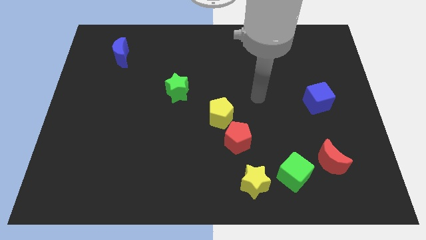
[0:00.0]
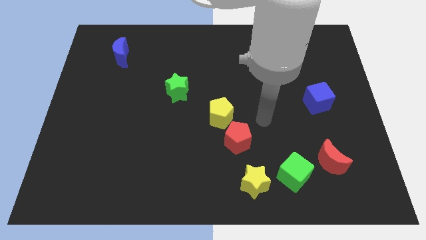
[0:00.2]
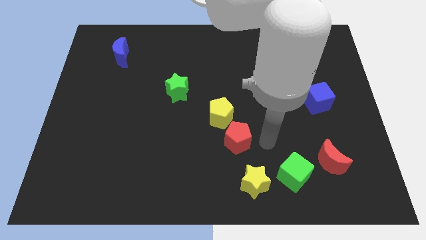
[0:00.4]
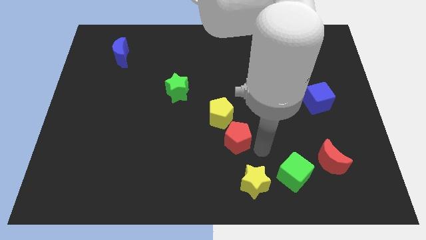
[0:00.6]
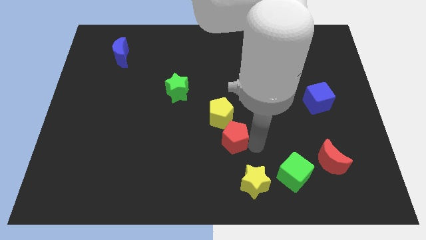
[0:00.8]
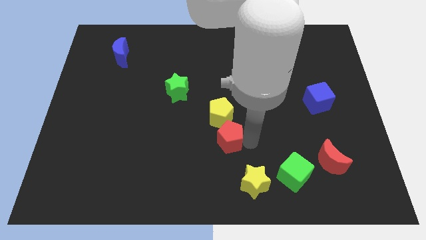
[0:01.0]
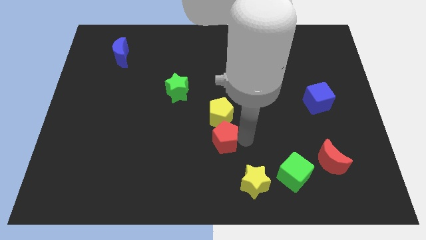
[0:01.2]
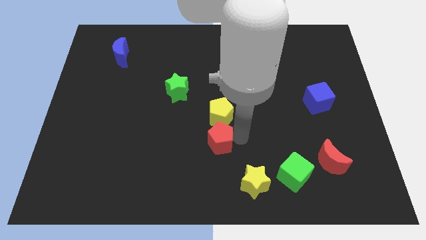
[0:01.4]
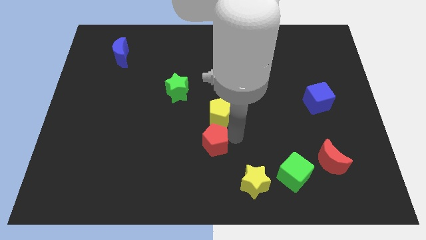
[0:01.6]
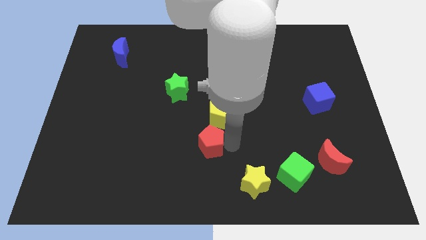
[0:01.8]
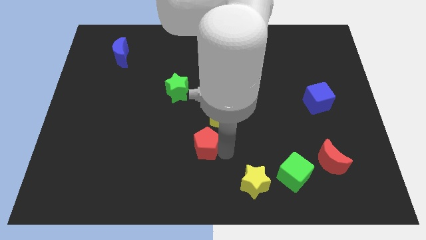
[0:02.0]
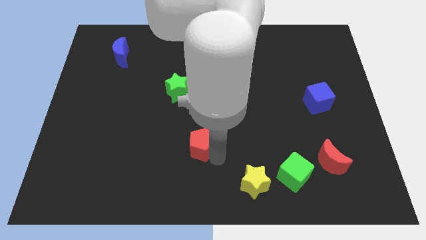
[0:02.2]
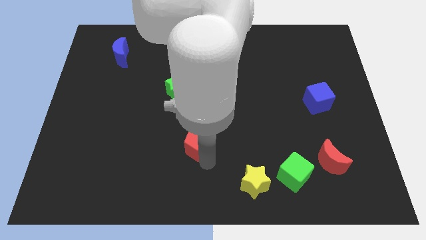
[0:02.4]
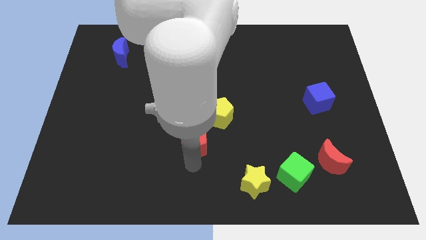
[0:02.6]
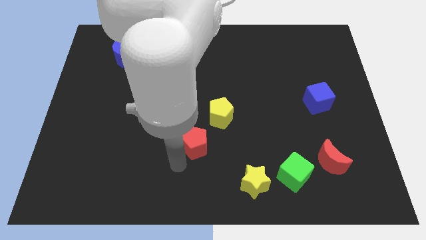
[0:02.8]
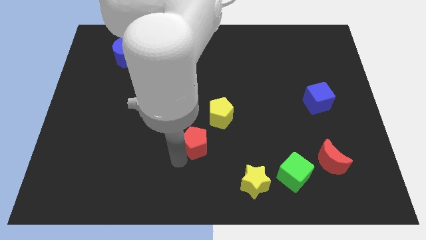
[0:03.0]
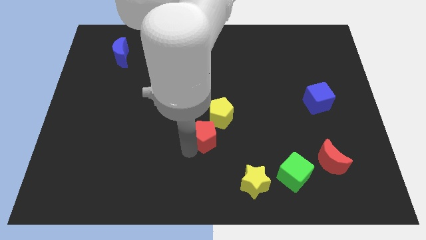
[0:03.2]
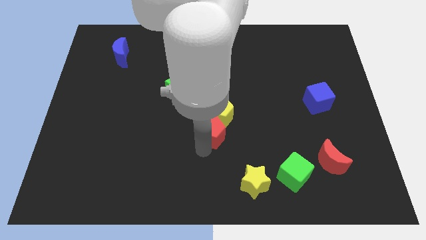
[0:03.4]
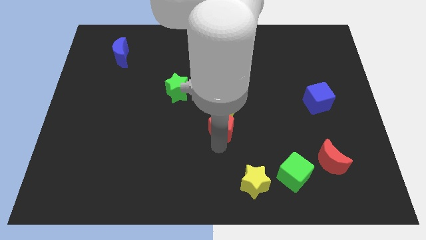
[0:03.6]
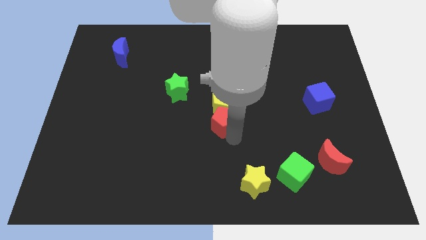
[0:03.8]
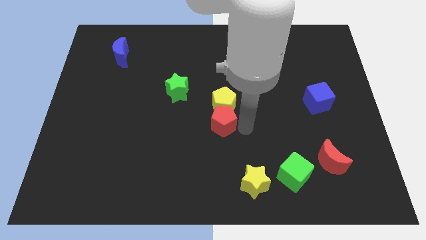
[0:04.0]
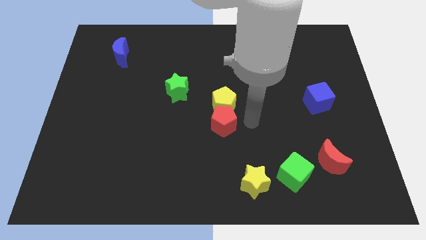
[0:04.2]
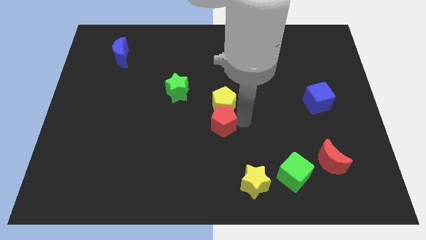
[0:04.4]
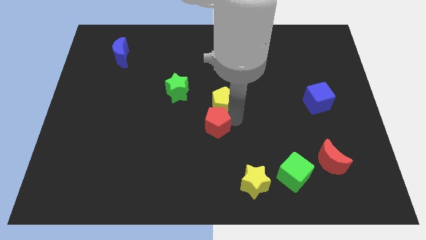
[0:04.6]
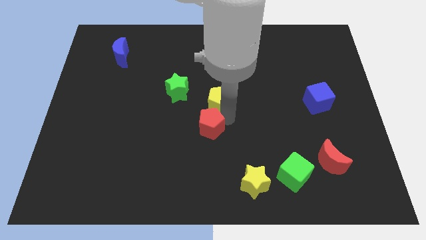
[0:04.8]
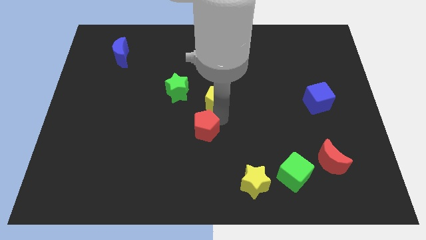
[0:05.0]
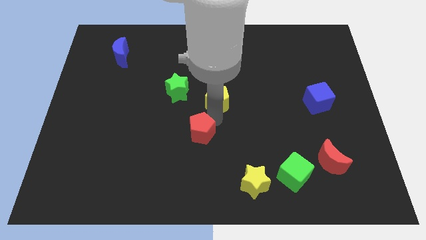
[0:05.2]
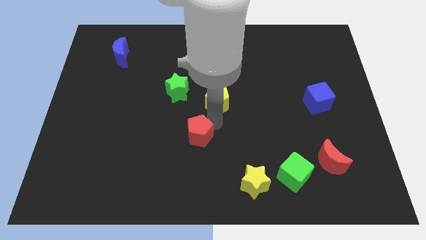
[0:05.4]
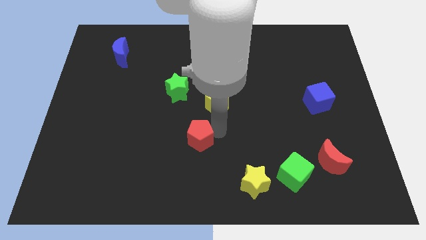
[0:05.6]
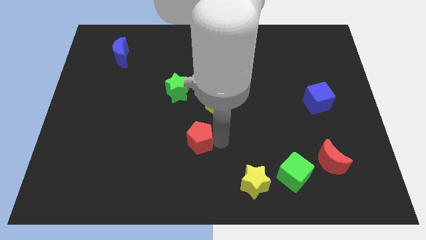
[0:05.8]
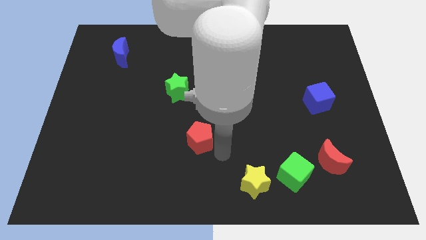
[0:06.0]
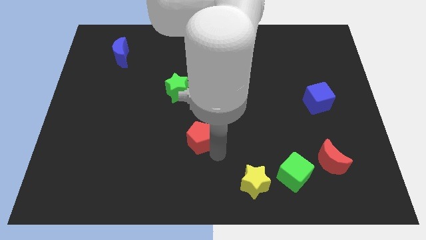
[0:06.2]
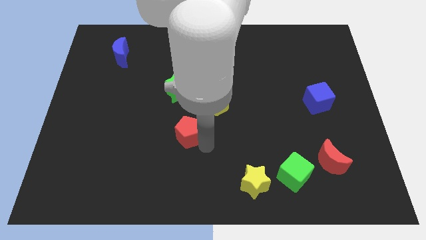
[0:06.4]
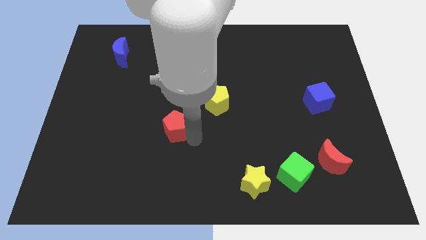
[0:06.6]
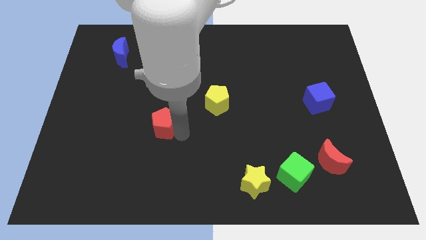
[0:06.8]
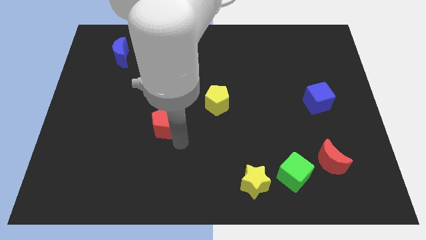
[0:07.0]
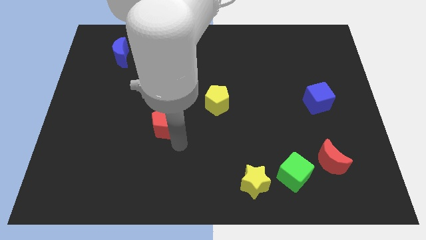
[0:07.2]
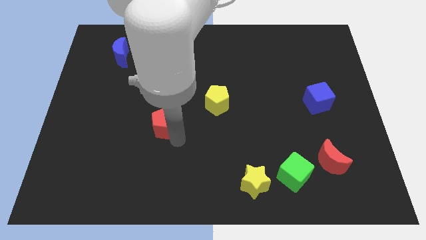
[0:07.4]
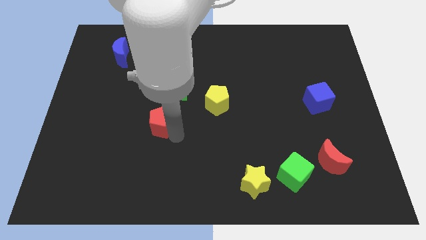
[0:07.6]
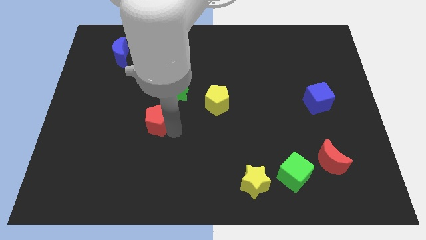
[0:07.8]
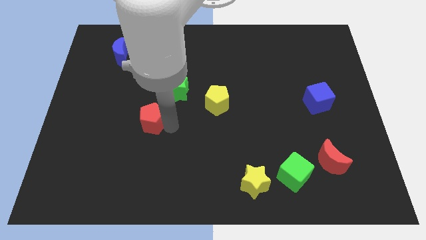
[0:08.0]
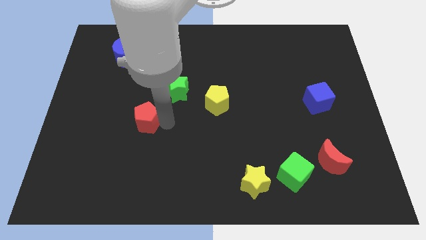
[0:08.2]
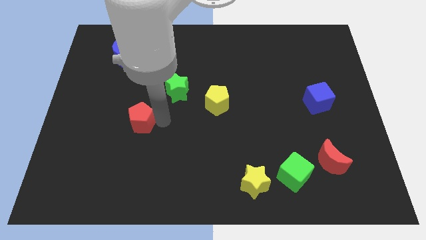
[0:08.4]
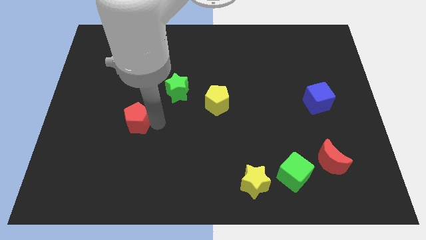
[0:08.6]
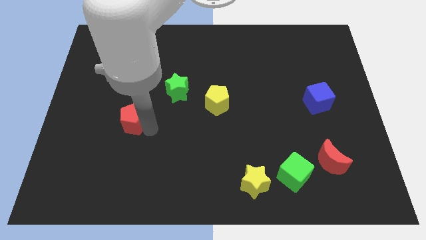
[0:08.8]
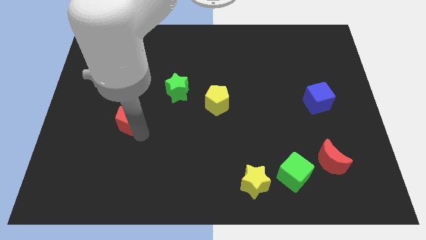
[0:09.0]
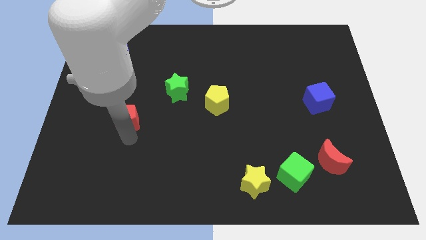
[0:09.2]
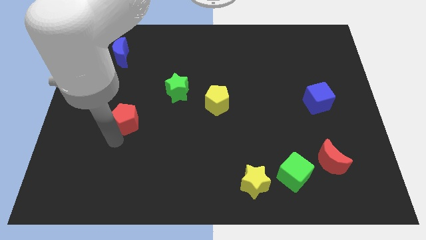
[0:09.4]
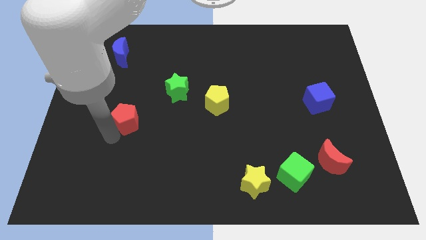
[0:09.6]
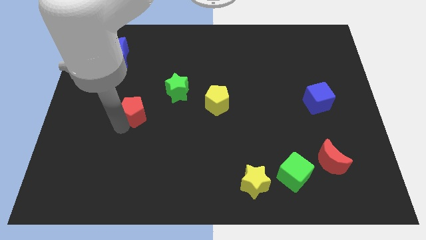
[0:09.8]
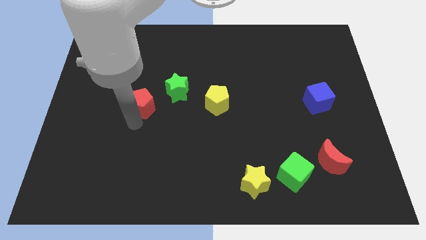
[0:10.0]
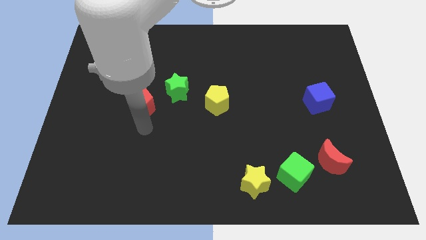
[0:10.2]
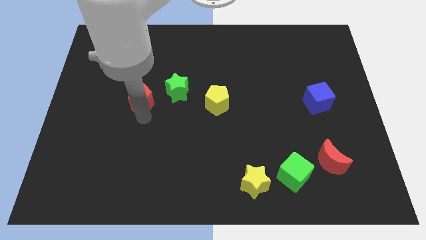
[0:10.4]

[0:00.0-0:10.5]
move the red pentagon diagonally up and to the left

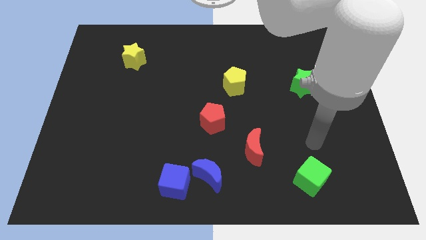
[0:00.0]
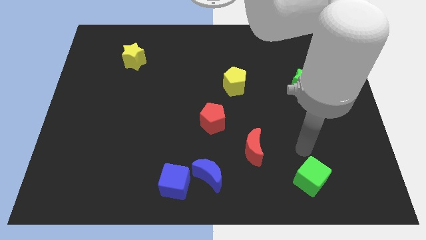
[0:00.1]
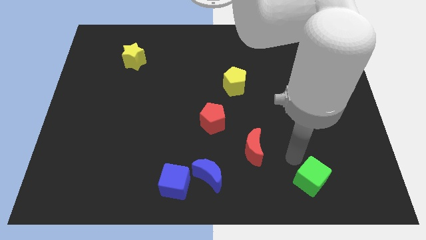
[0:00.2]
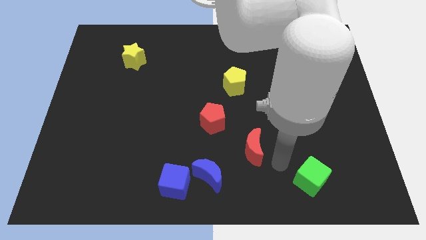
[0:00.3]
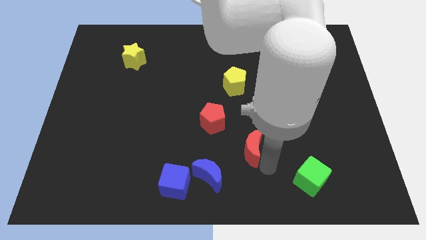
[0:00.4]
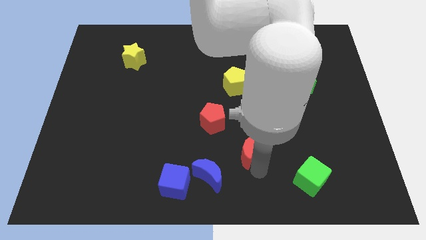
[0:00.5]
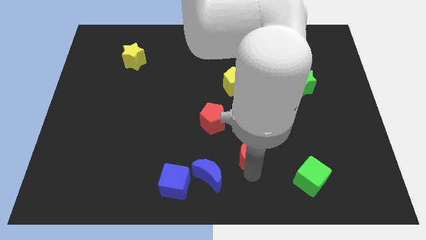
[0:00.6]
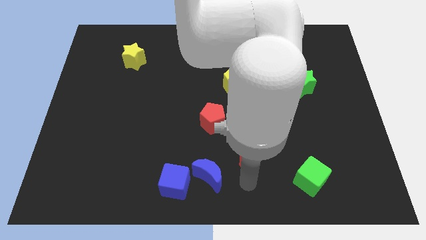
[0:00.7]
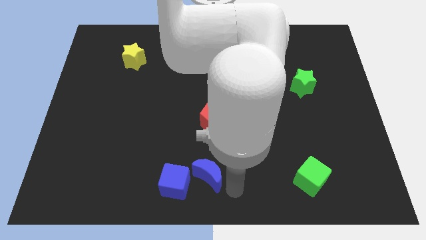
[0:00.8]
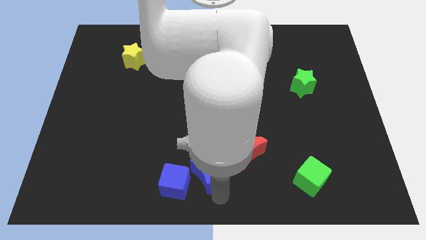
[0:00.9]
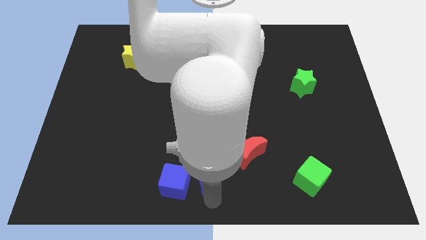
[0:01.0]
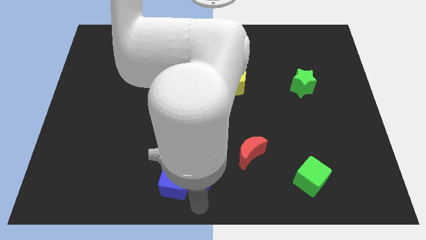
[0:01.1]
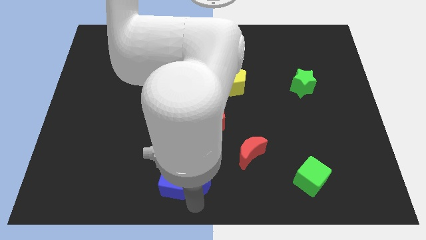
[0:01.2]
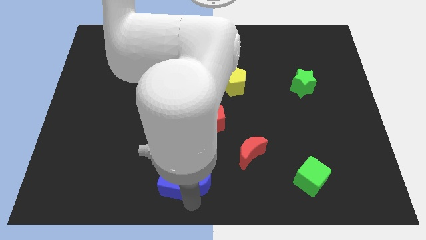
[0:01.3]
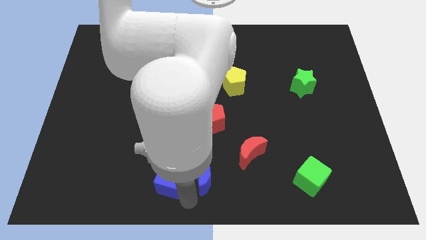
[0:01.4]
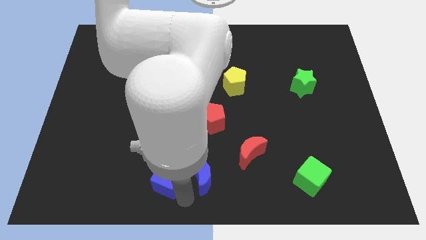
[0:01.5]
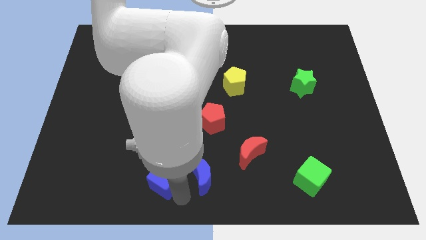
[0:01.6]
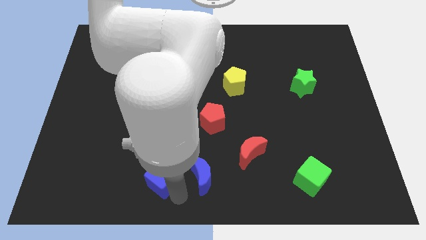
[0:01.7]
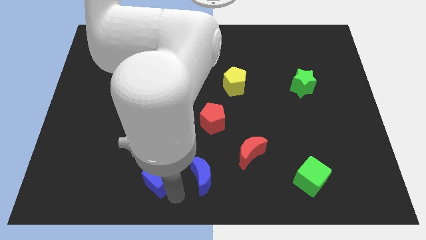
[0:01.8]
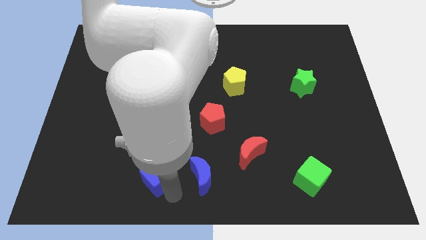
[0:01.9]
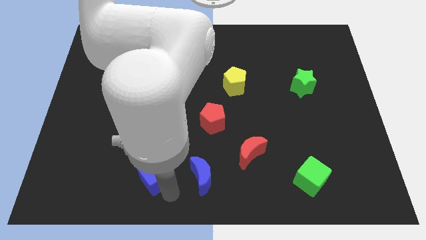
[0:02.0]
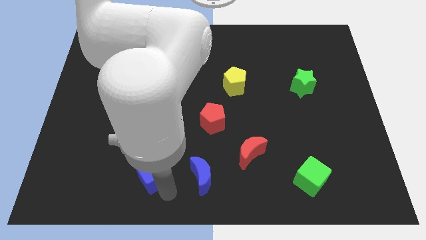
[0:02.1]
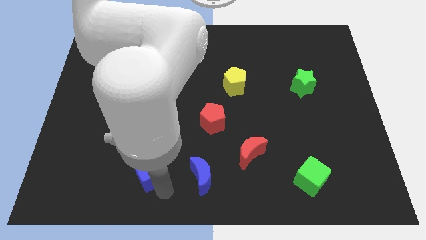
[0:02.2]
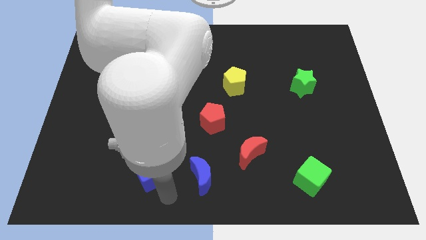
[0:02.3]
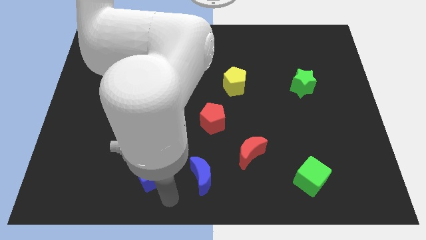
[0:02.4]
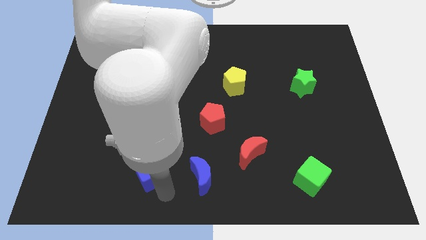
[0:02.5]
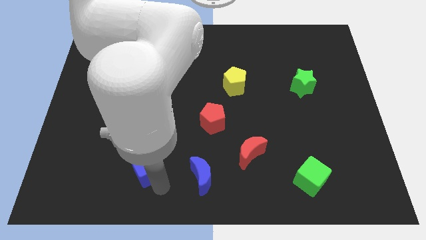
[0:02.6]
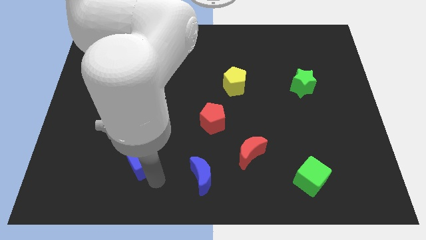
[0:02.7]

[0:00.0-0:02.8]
push the blue cube diagonally up and left a little
